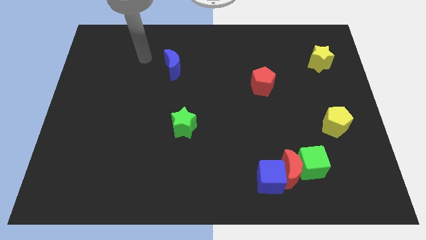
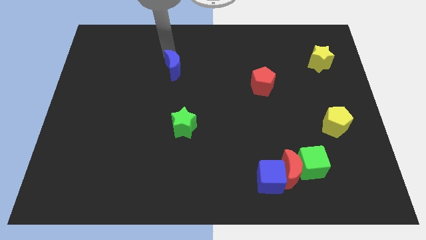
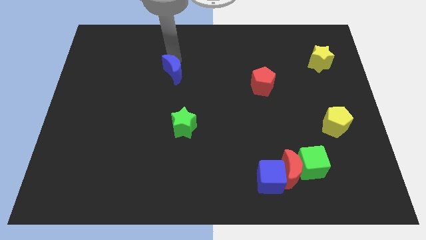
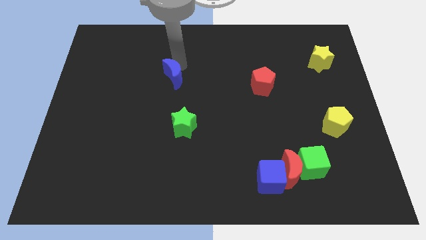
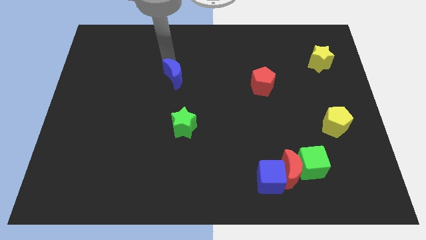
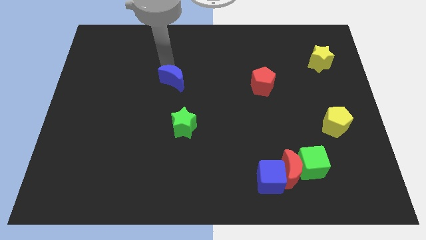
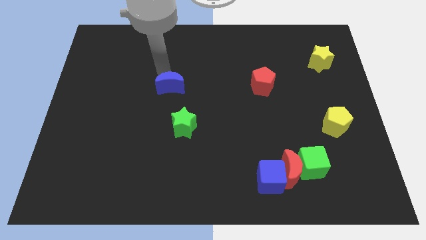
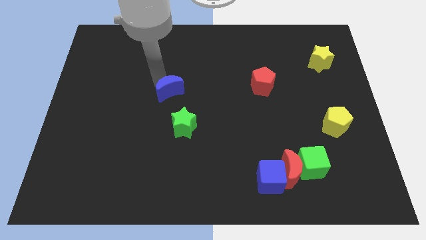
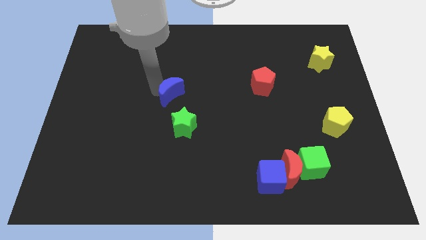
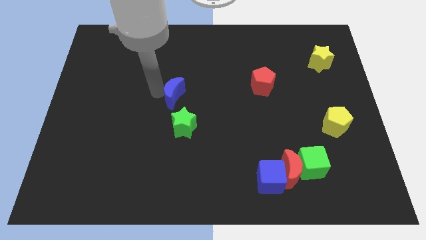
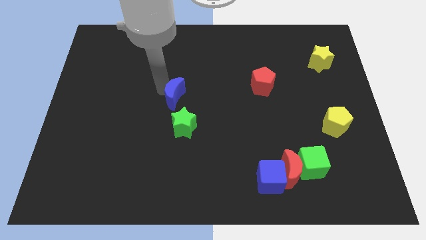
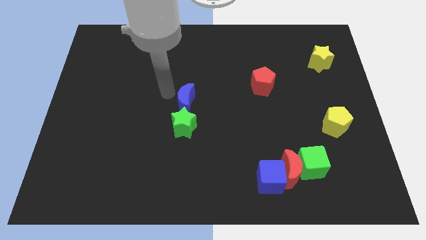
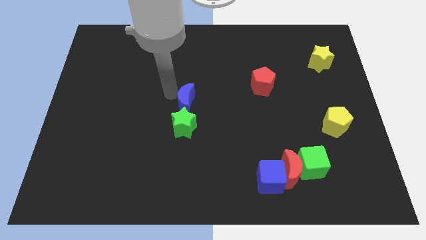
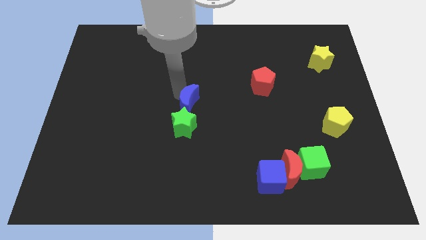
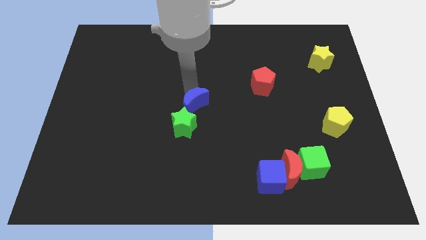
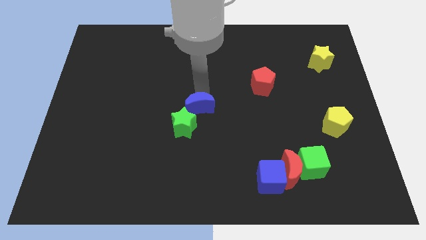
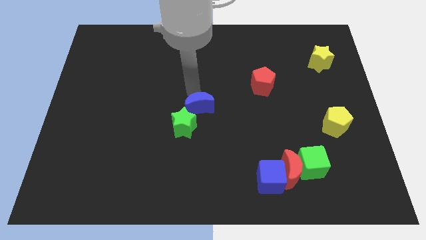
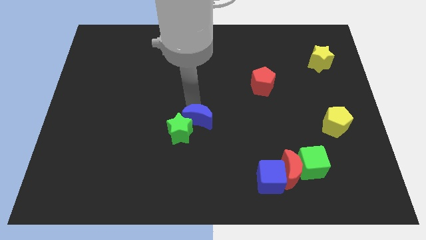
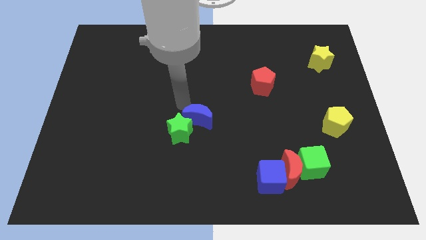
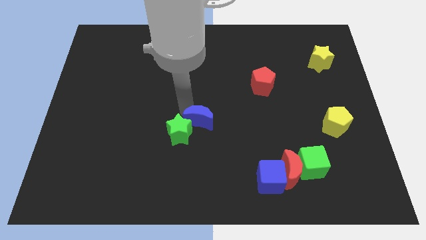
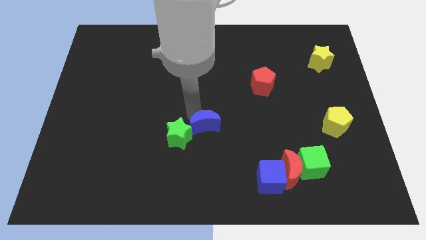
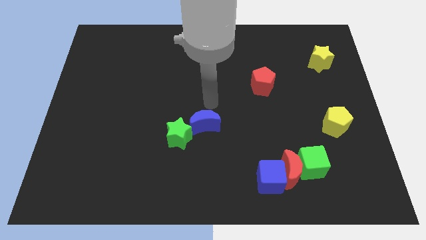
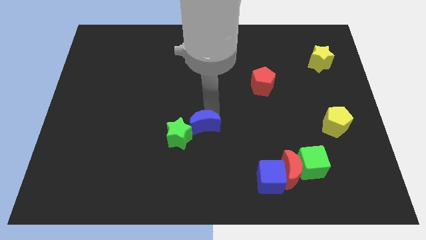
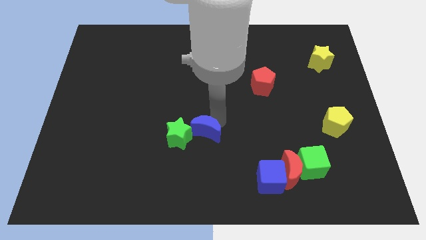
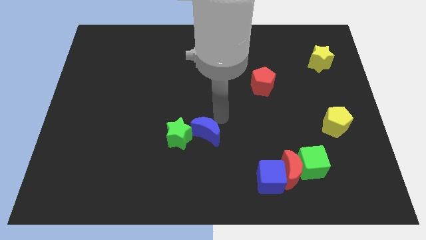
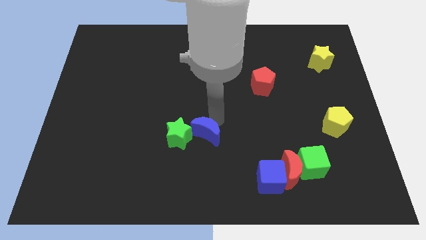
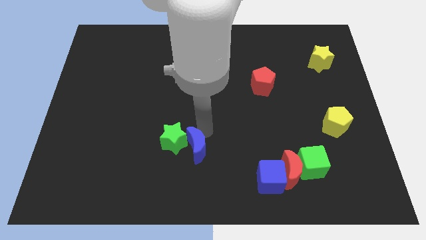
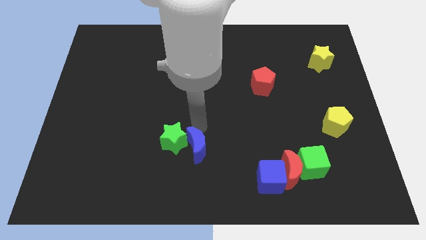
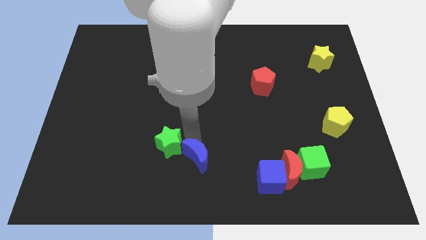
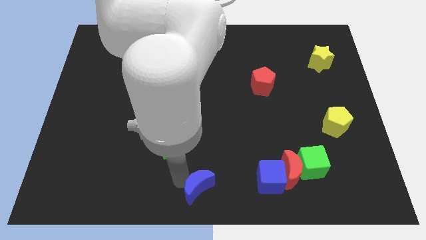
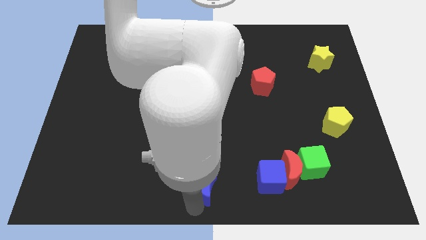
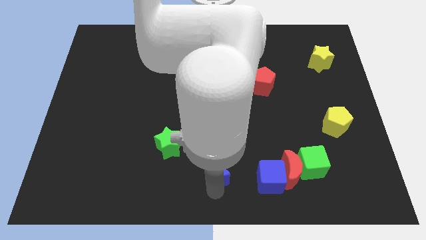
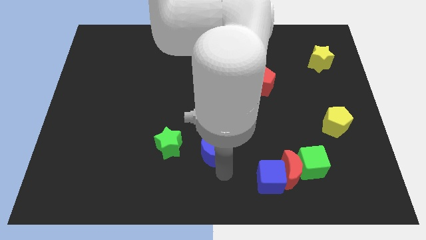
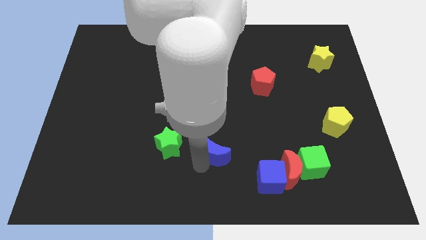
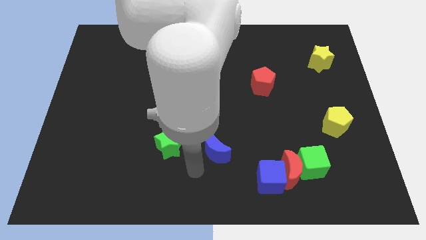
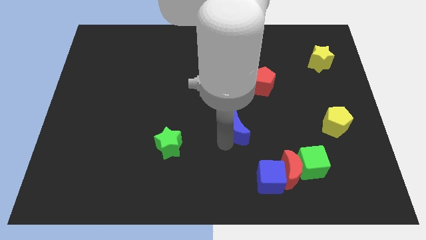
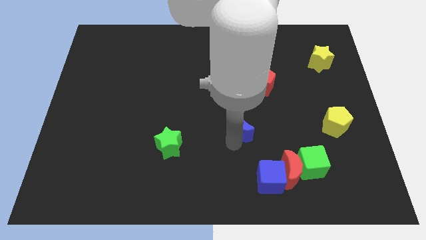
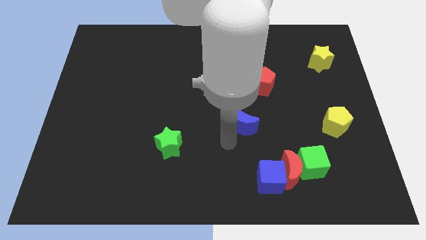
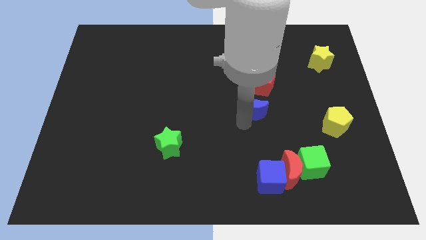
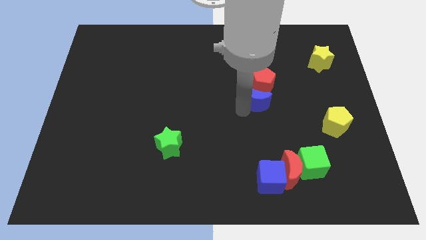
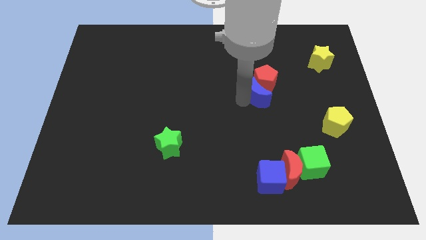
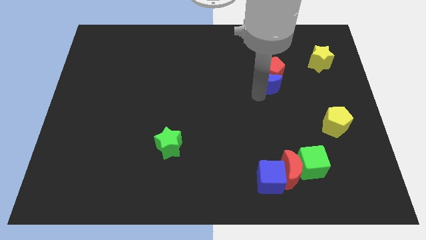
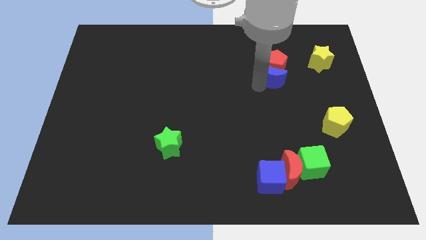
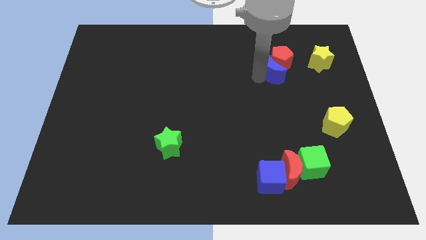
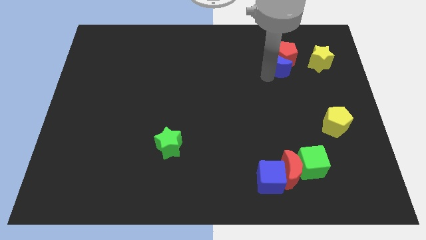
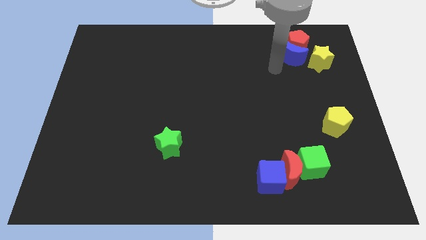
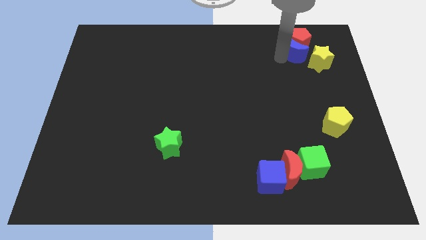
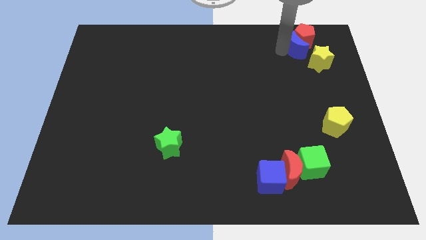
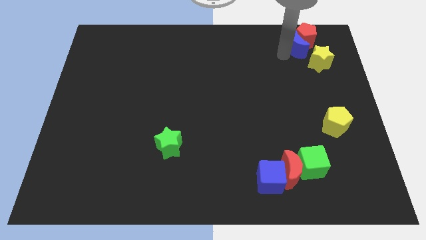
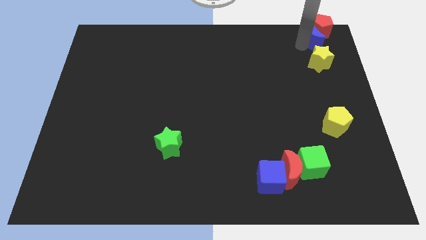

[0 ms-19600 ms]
push the blue moon to the upper right corner

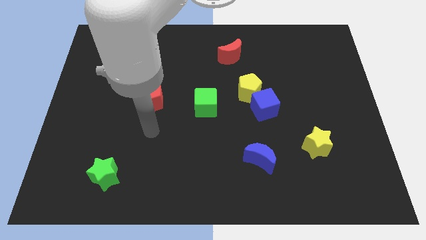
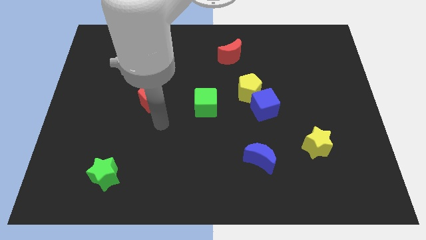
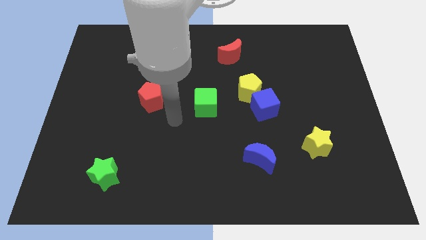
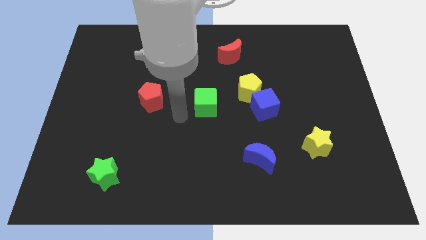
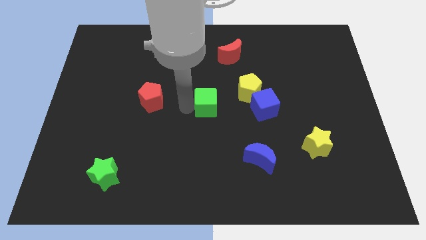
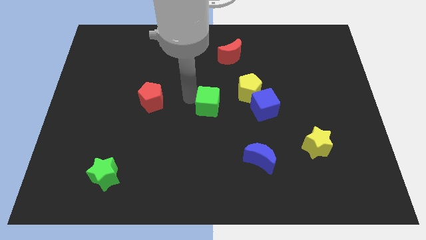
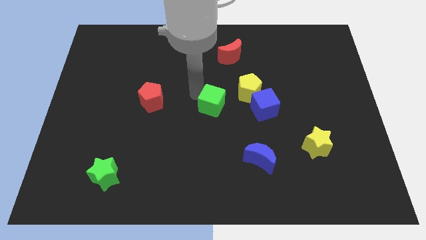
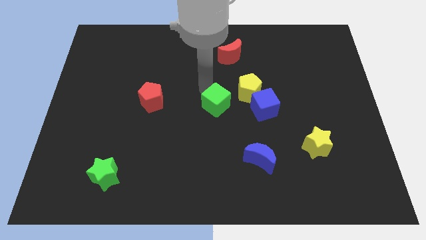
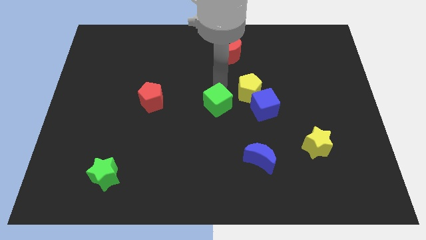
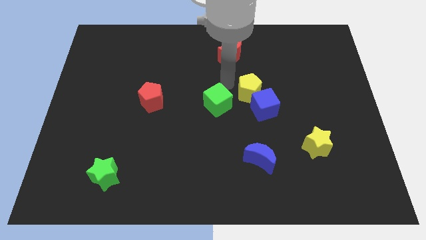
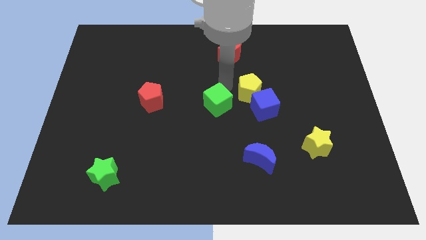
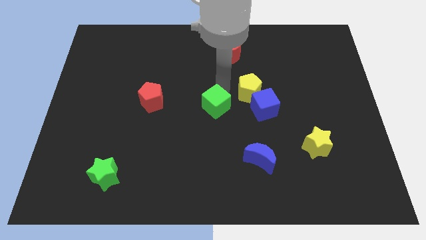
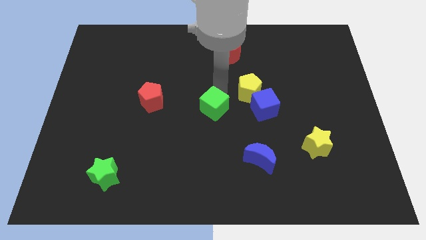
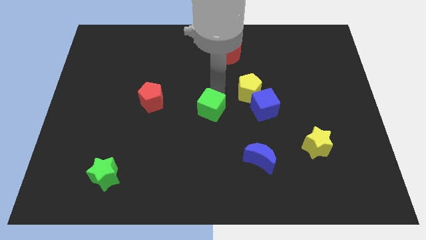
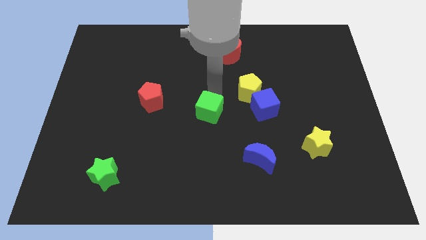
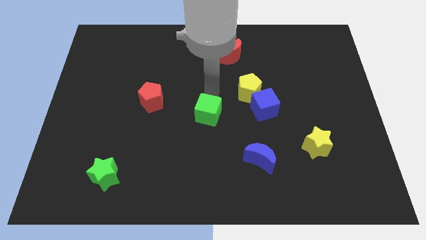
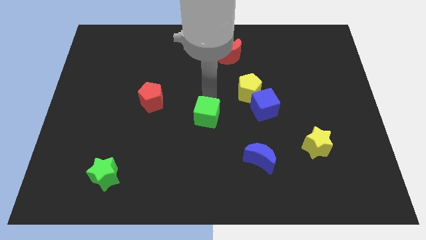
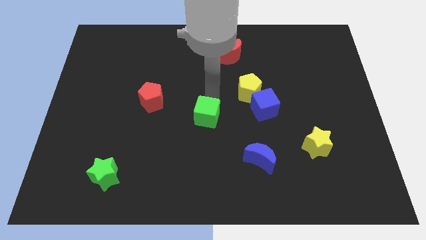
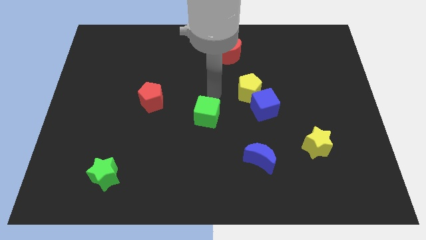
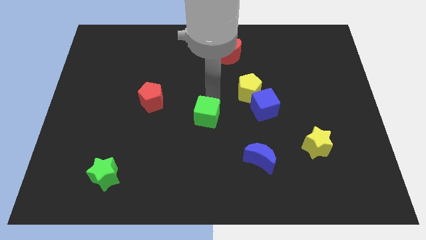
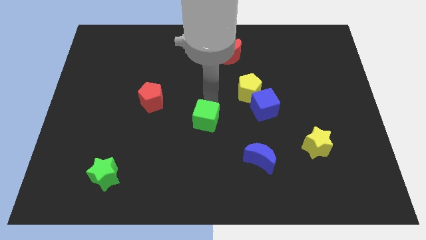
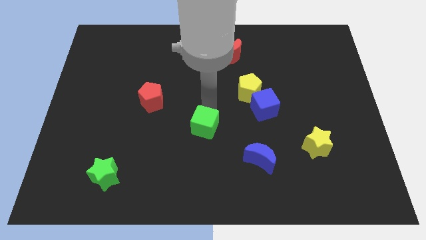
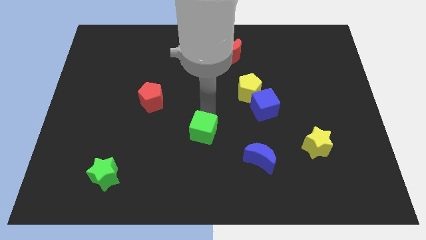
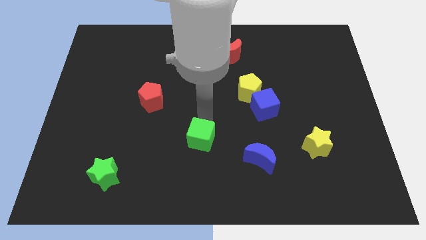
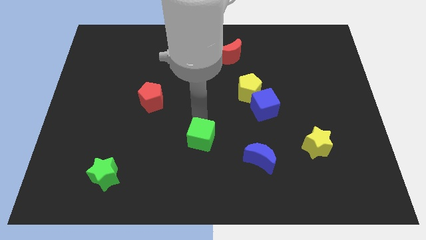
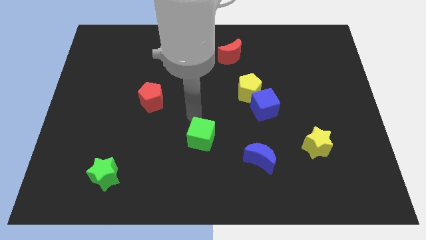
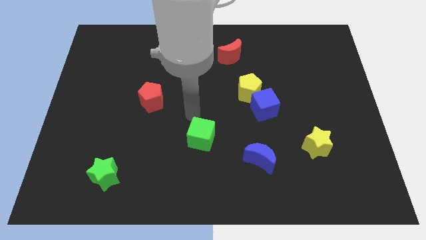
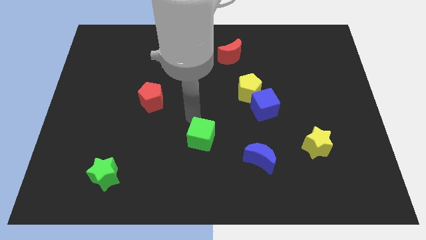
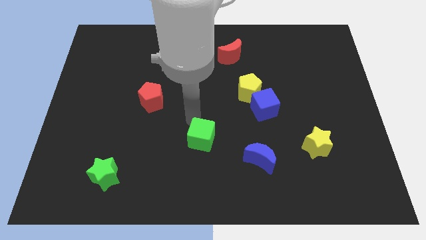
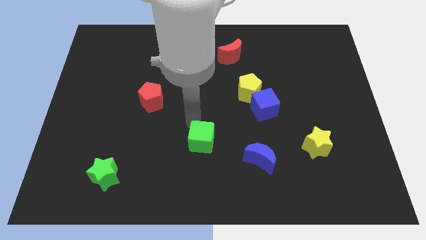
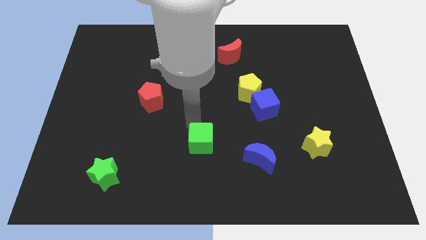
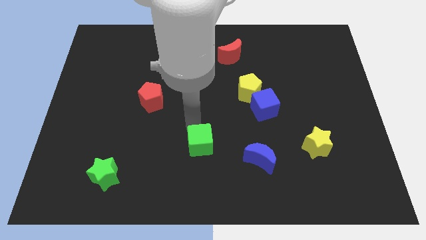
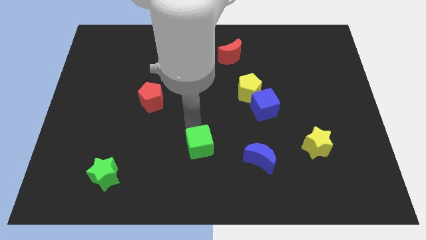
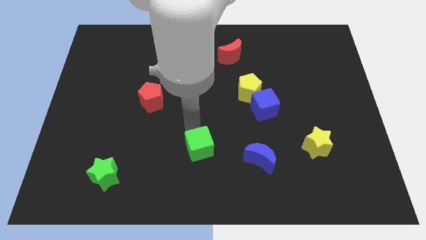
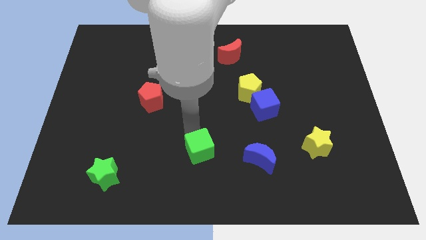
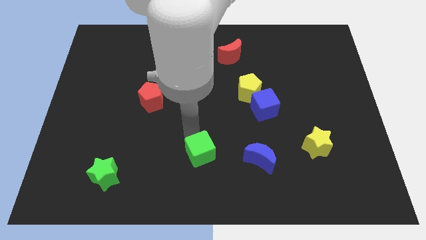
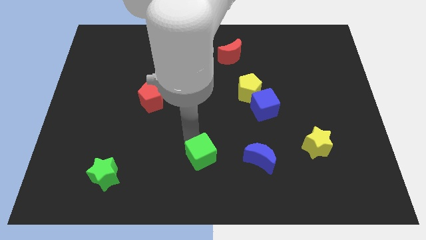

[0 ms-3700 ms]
move the green cube to the bottom
